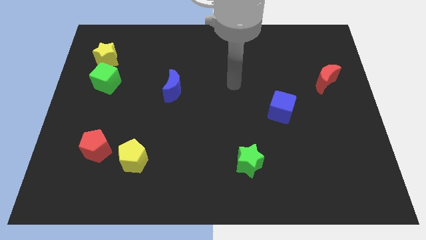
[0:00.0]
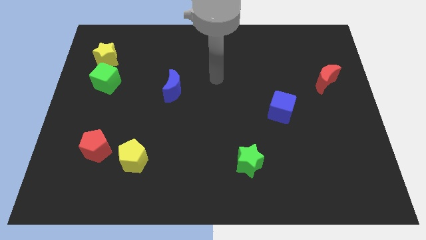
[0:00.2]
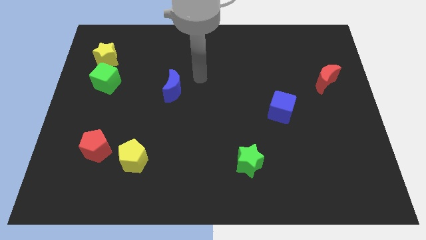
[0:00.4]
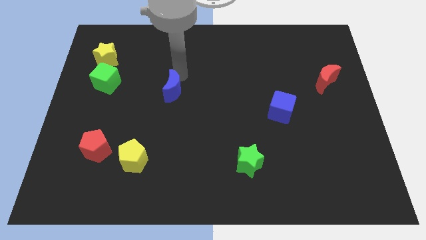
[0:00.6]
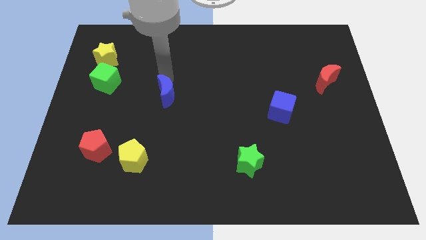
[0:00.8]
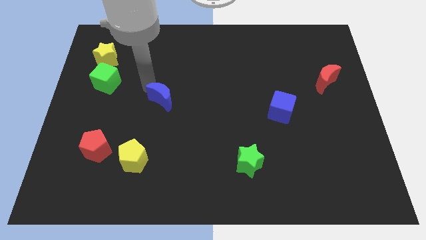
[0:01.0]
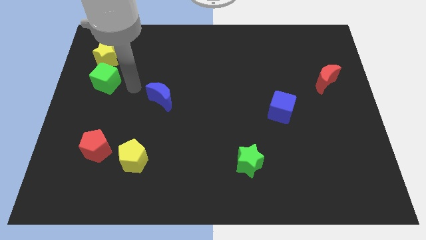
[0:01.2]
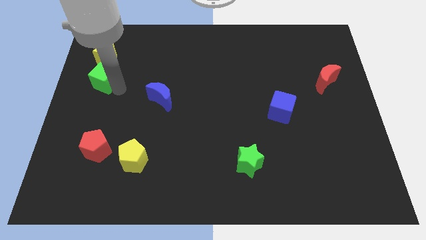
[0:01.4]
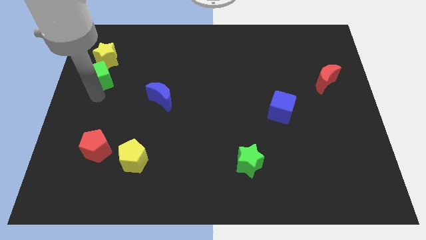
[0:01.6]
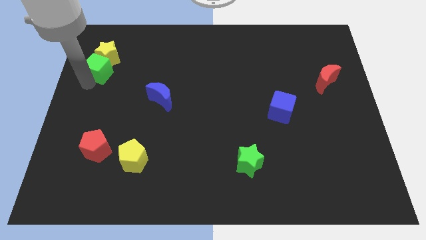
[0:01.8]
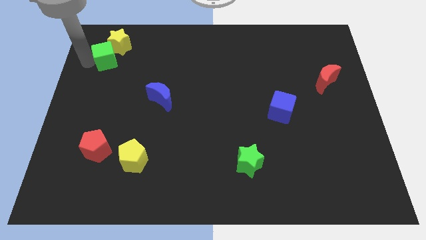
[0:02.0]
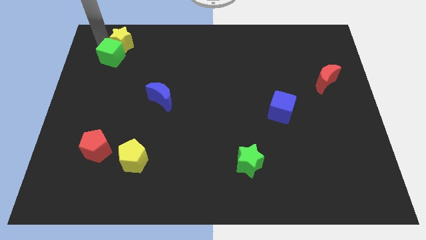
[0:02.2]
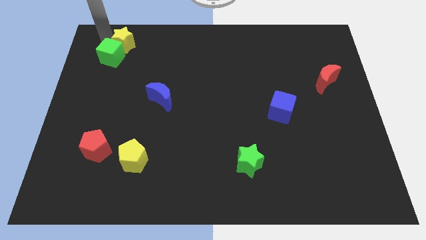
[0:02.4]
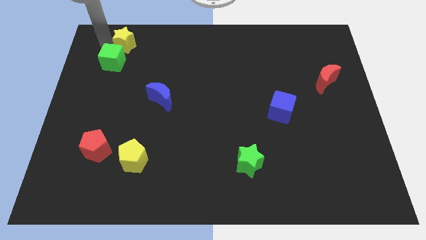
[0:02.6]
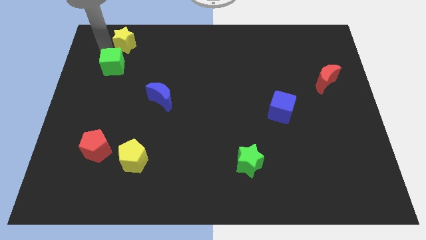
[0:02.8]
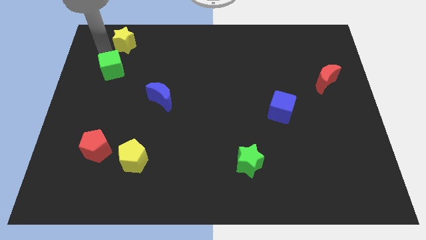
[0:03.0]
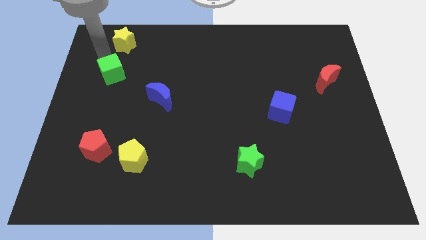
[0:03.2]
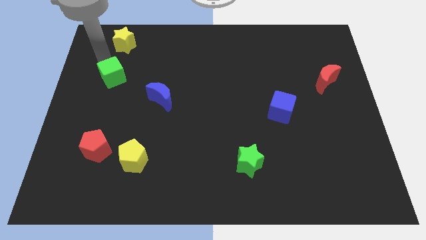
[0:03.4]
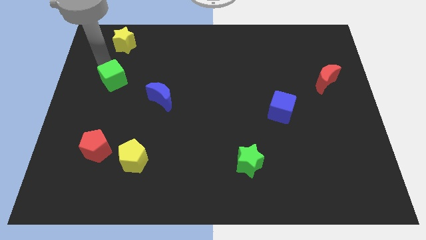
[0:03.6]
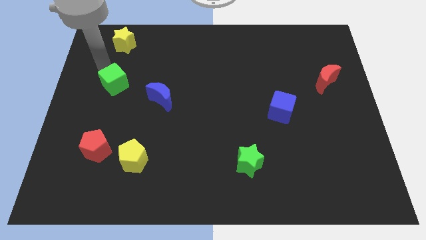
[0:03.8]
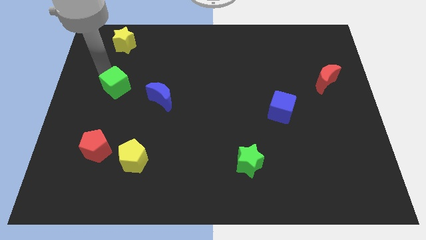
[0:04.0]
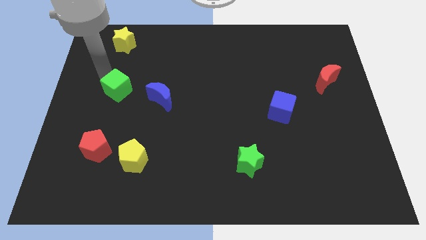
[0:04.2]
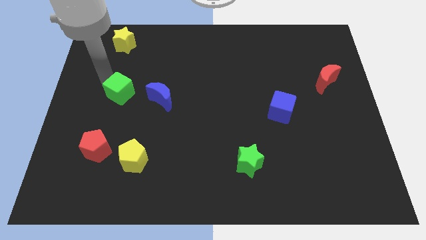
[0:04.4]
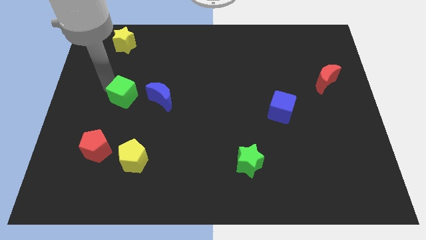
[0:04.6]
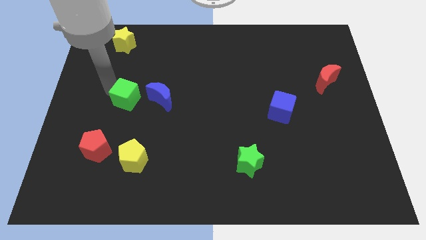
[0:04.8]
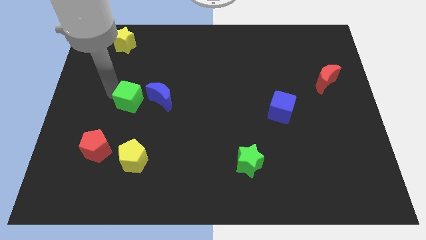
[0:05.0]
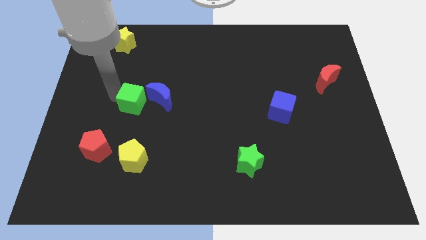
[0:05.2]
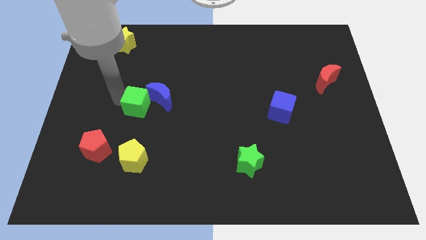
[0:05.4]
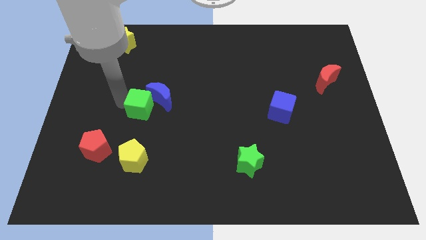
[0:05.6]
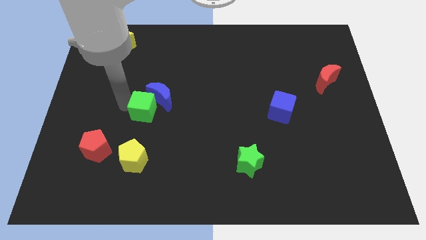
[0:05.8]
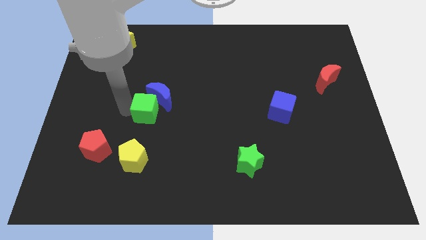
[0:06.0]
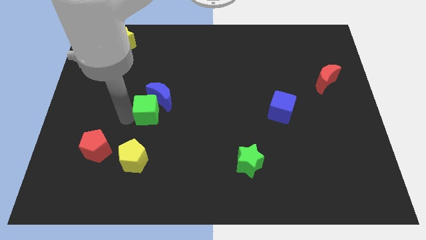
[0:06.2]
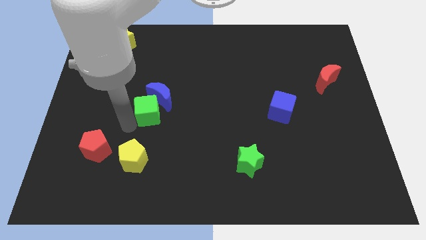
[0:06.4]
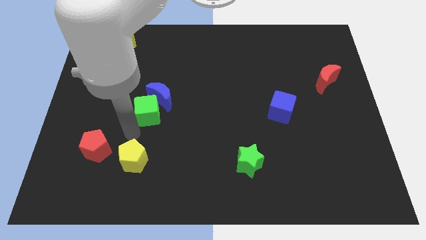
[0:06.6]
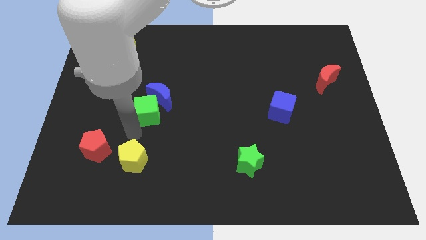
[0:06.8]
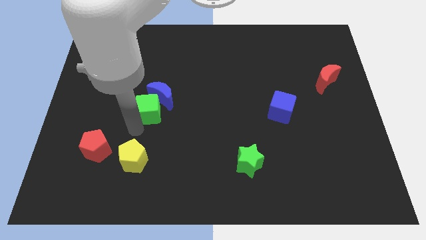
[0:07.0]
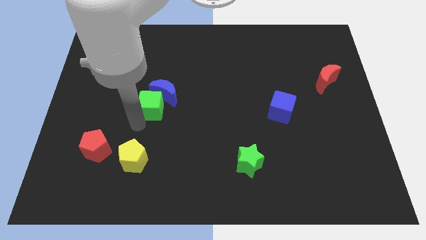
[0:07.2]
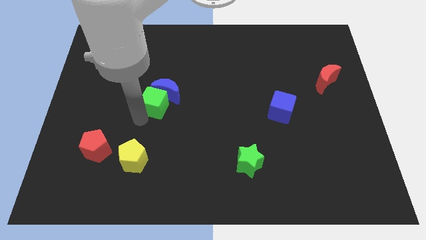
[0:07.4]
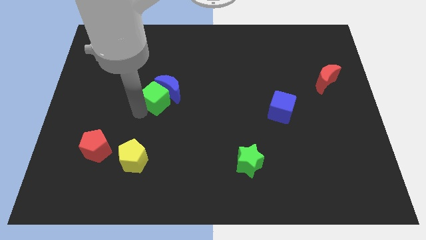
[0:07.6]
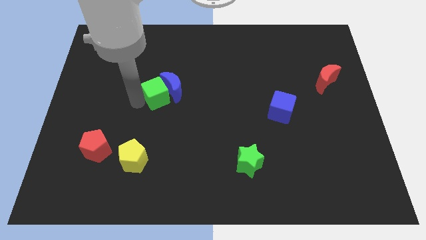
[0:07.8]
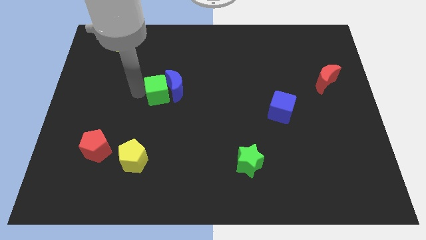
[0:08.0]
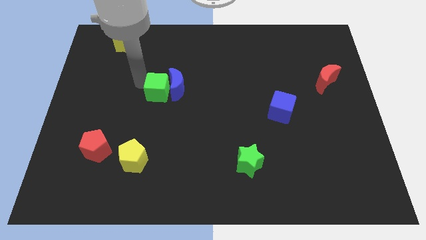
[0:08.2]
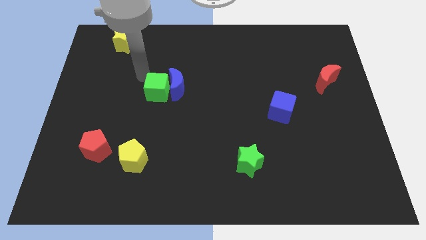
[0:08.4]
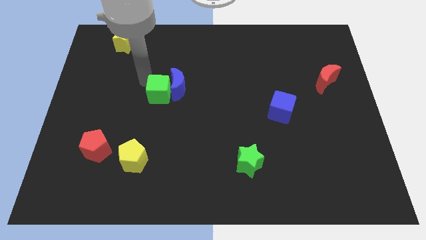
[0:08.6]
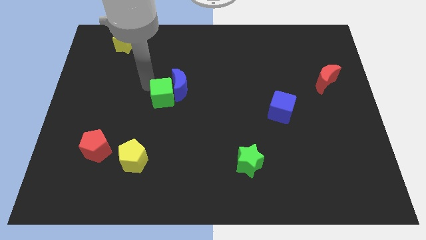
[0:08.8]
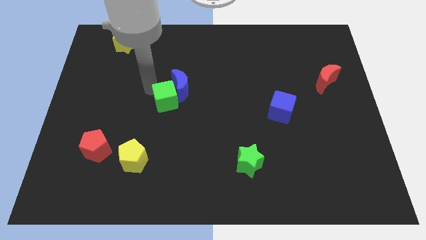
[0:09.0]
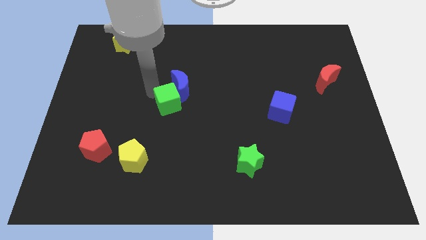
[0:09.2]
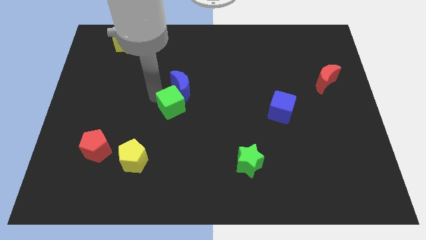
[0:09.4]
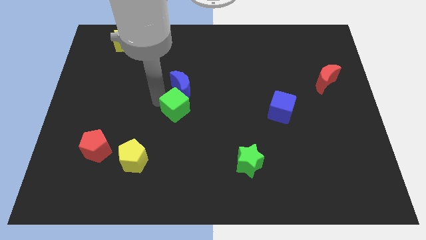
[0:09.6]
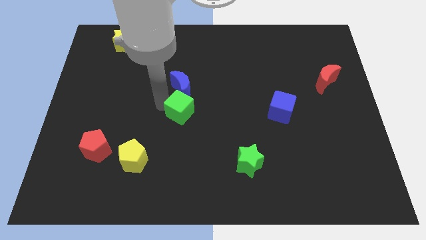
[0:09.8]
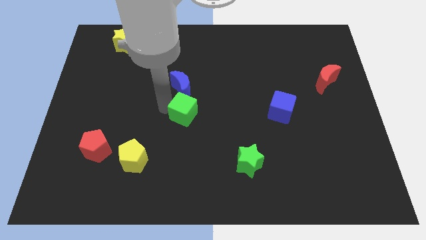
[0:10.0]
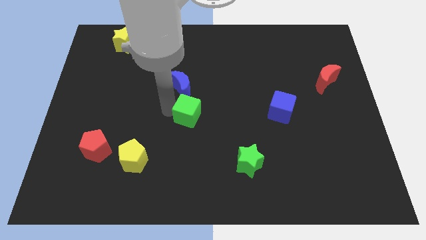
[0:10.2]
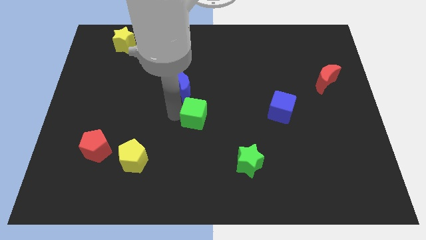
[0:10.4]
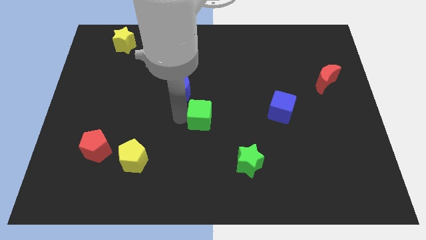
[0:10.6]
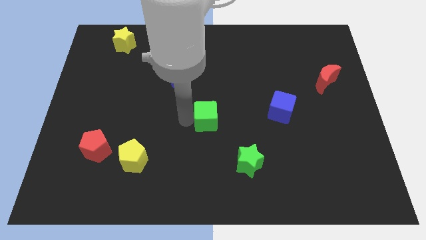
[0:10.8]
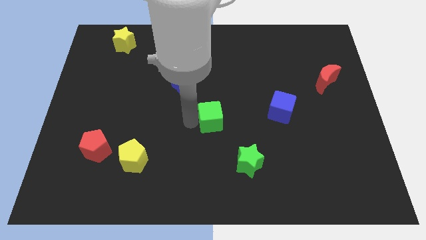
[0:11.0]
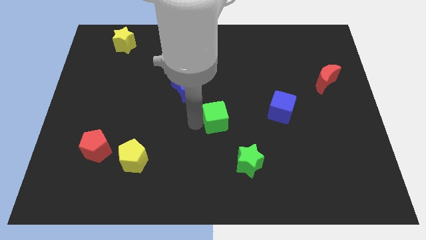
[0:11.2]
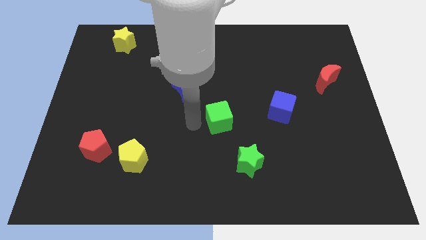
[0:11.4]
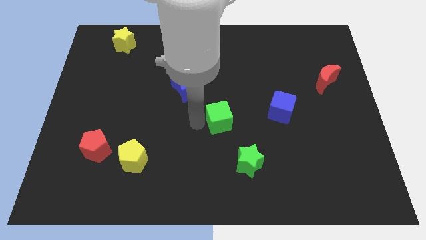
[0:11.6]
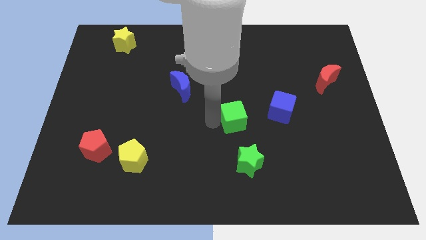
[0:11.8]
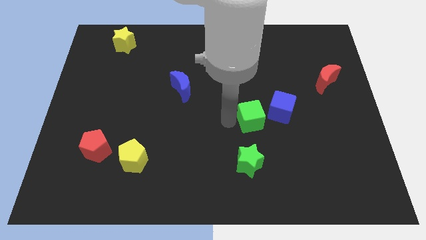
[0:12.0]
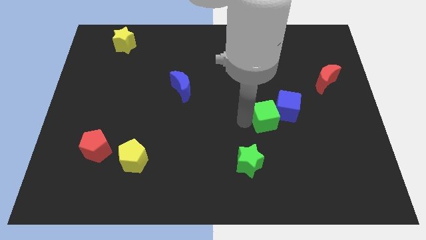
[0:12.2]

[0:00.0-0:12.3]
slide the green cube close to the blue cube
